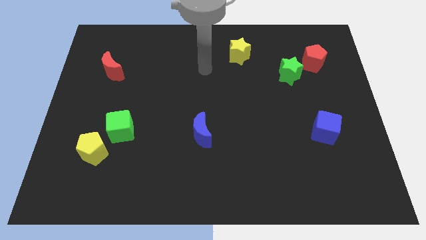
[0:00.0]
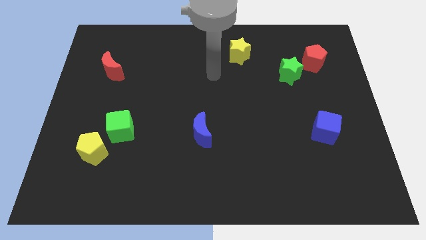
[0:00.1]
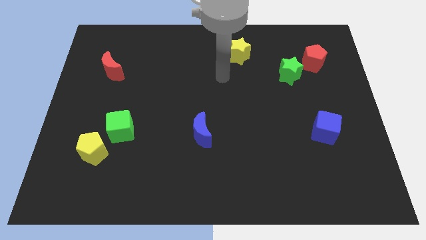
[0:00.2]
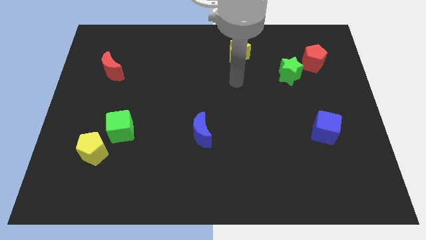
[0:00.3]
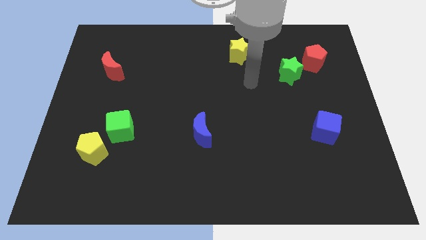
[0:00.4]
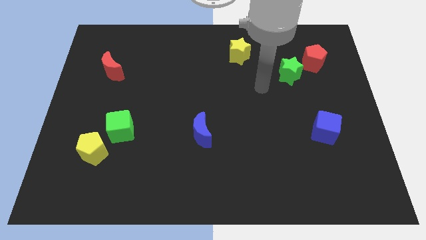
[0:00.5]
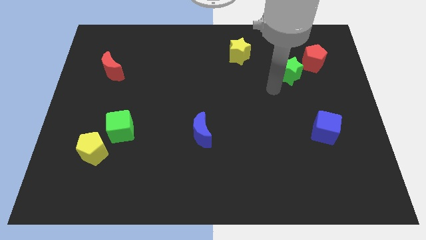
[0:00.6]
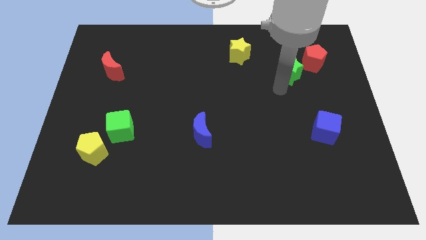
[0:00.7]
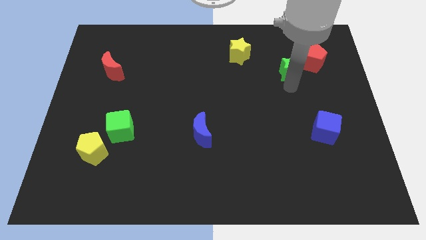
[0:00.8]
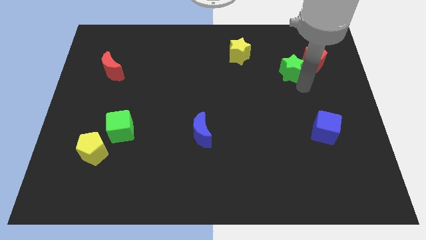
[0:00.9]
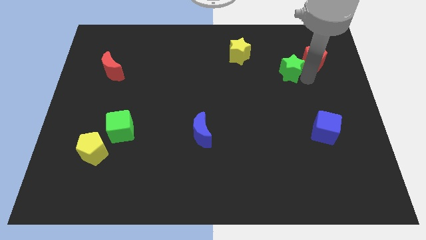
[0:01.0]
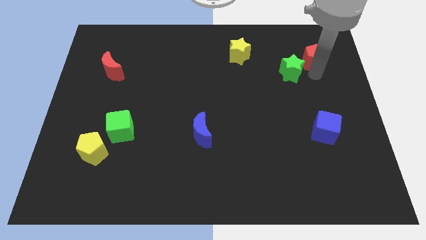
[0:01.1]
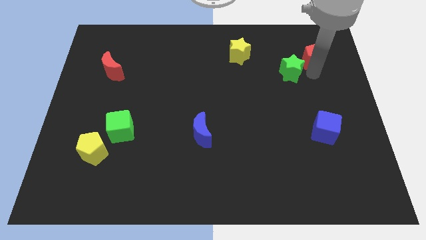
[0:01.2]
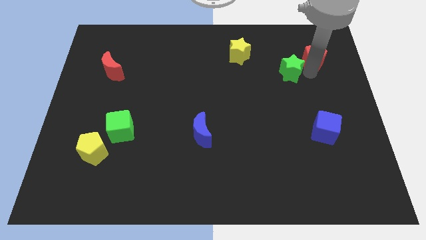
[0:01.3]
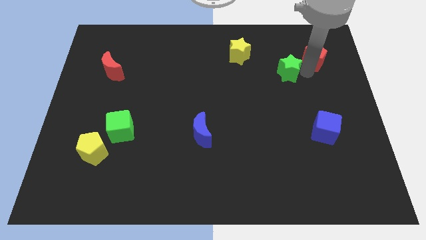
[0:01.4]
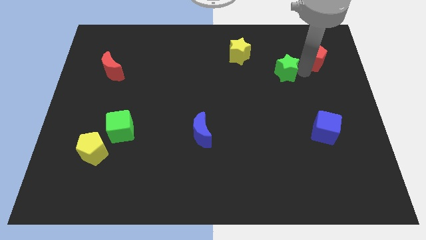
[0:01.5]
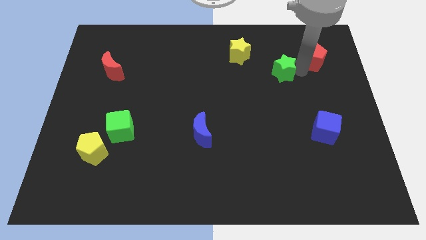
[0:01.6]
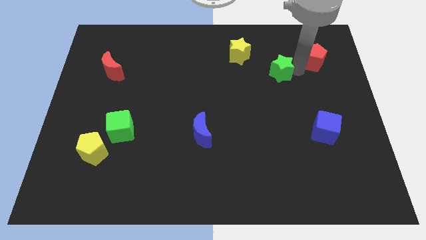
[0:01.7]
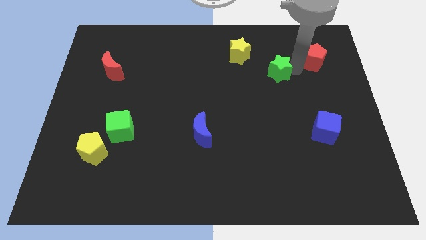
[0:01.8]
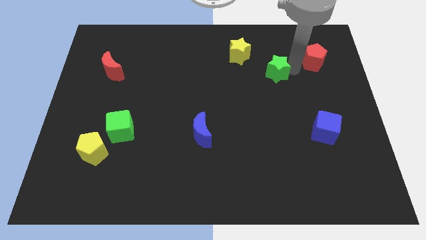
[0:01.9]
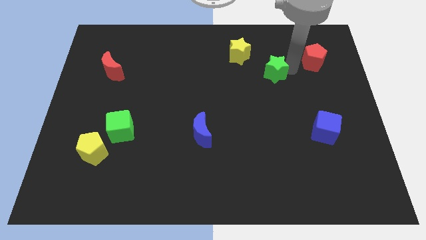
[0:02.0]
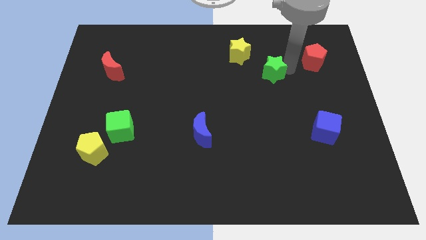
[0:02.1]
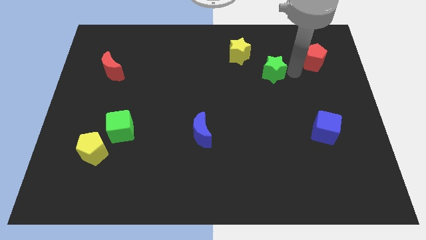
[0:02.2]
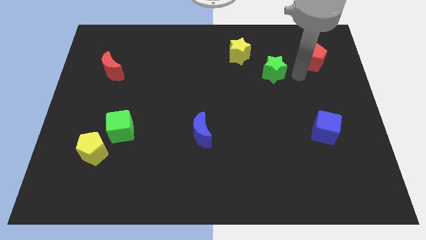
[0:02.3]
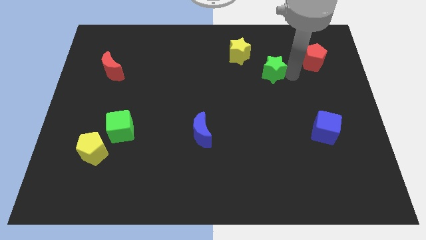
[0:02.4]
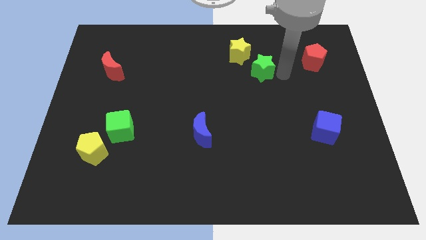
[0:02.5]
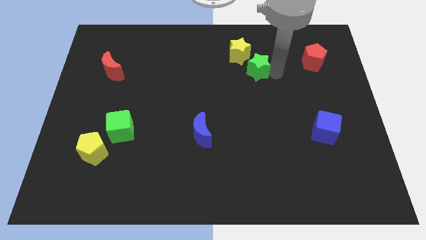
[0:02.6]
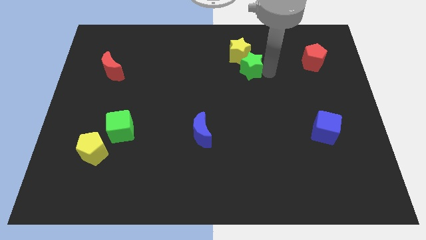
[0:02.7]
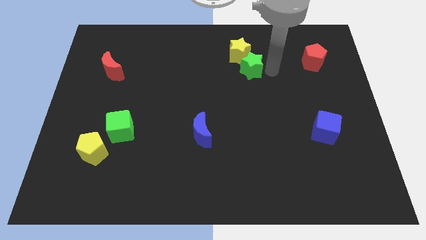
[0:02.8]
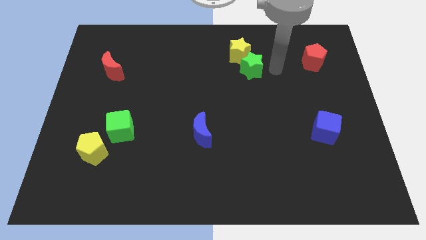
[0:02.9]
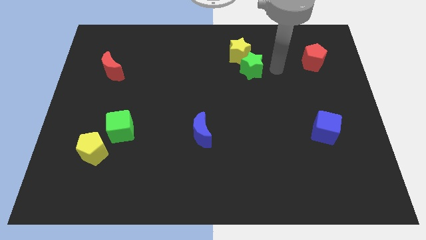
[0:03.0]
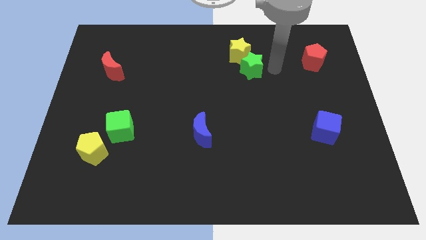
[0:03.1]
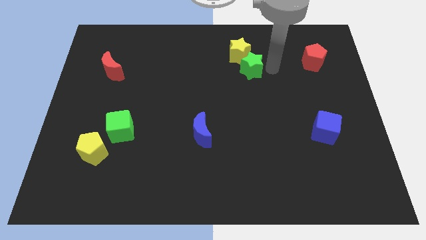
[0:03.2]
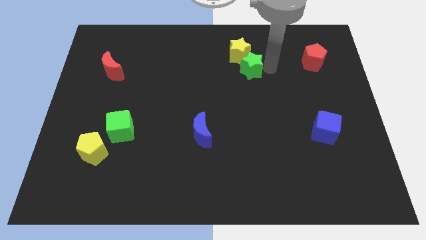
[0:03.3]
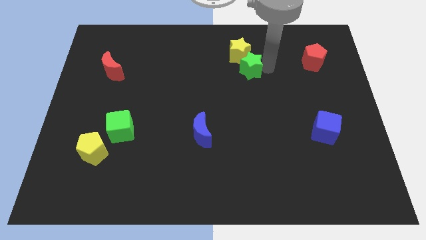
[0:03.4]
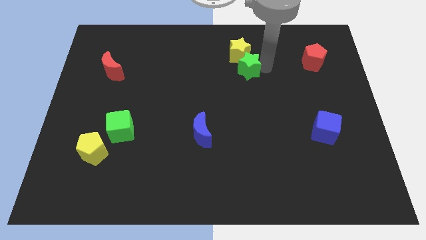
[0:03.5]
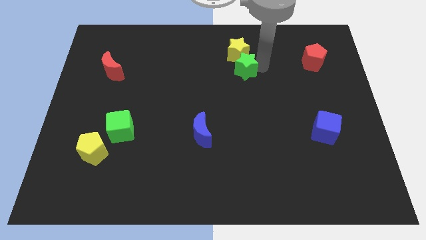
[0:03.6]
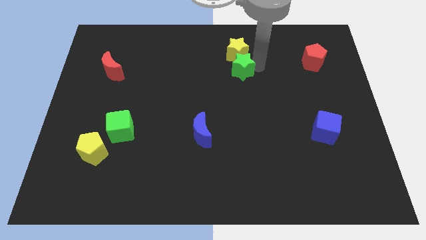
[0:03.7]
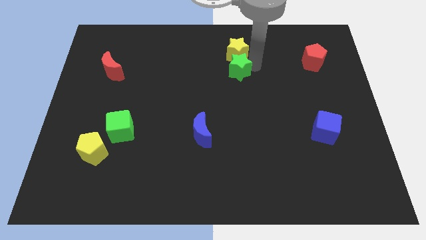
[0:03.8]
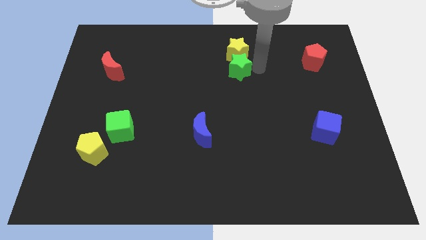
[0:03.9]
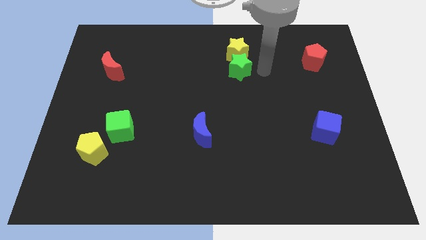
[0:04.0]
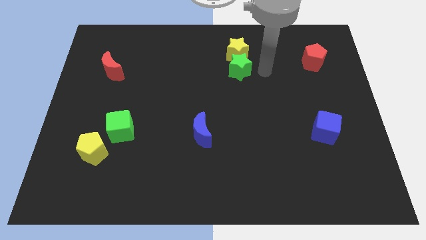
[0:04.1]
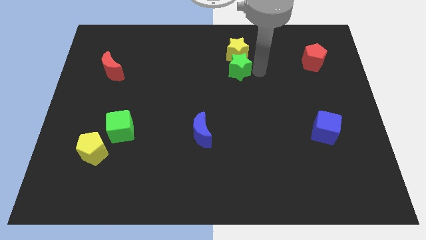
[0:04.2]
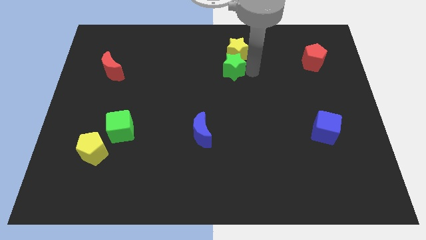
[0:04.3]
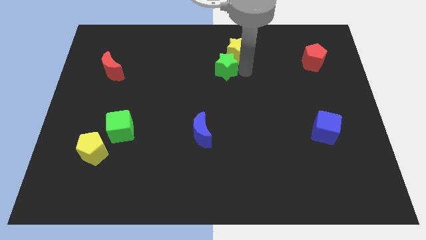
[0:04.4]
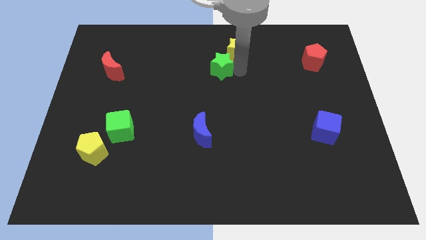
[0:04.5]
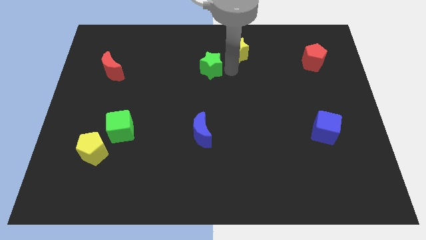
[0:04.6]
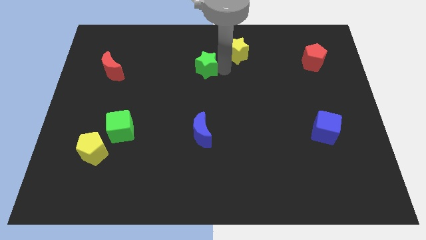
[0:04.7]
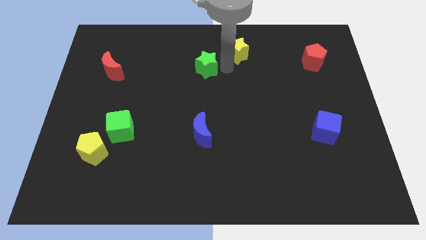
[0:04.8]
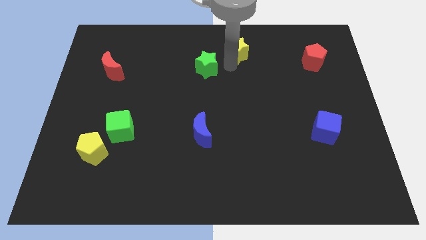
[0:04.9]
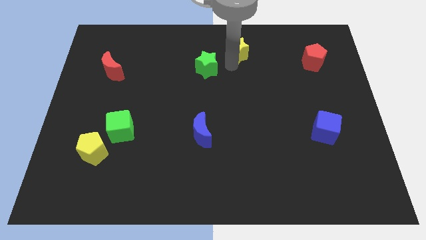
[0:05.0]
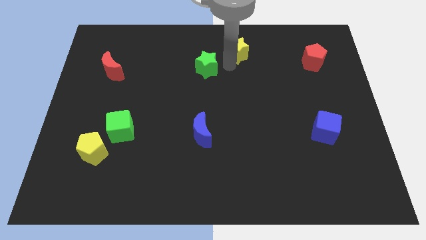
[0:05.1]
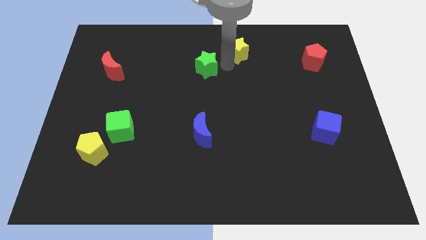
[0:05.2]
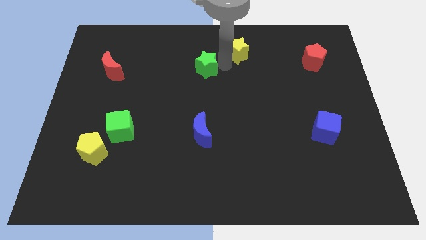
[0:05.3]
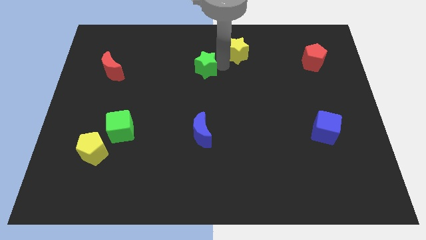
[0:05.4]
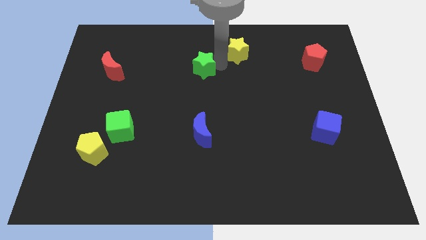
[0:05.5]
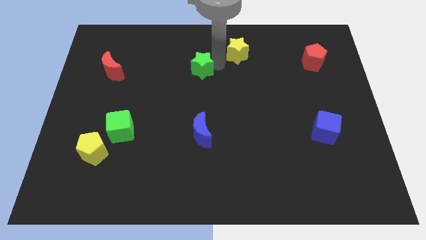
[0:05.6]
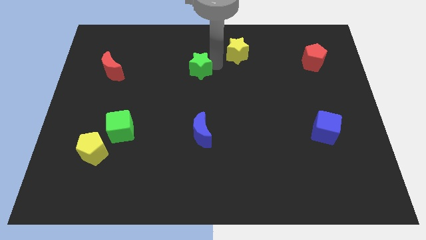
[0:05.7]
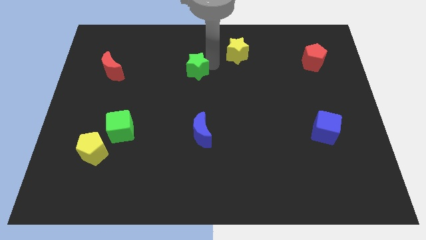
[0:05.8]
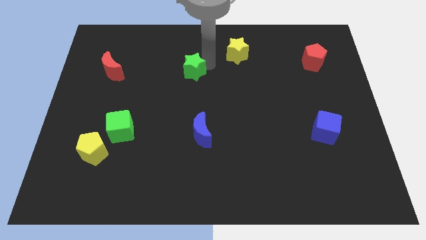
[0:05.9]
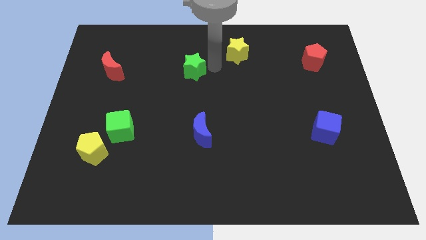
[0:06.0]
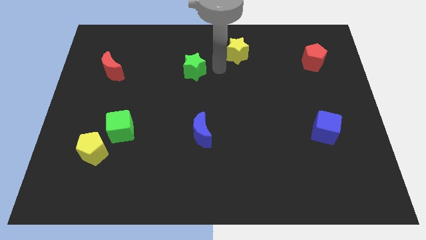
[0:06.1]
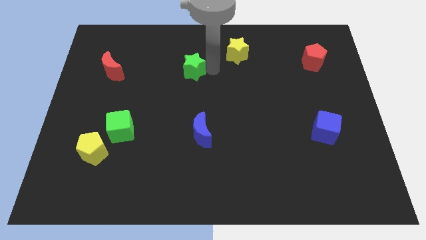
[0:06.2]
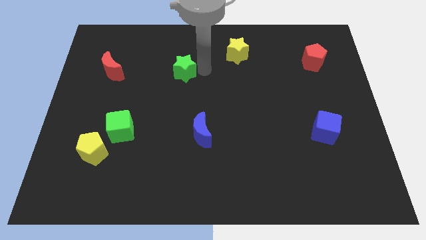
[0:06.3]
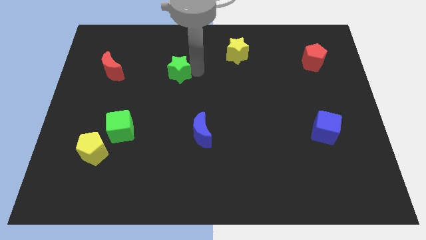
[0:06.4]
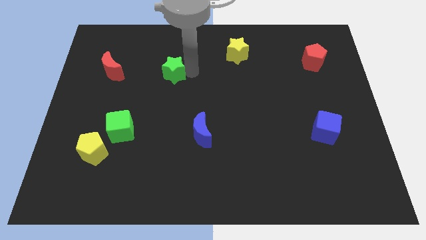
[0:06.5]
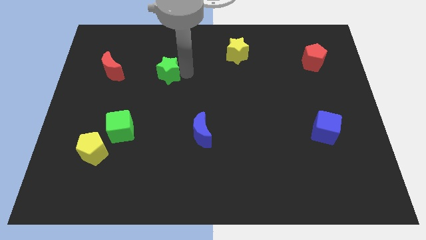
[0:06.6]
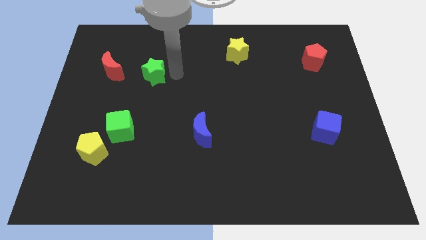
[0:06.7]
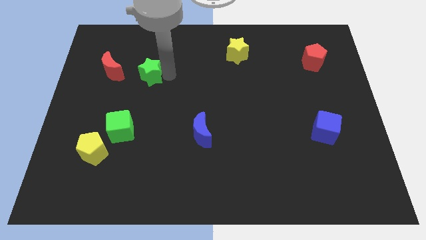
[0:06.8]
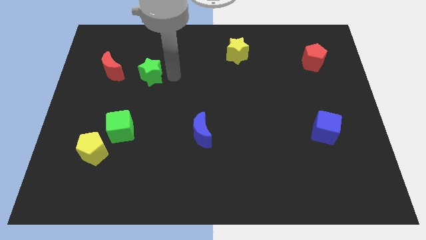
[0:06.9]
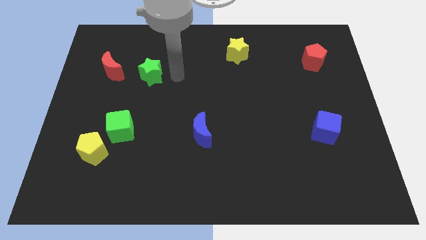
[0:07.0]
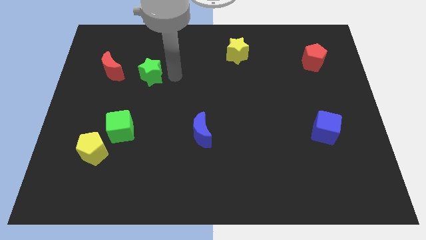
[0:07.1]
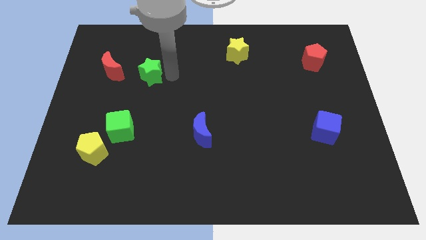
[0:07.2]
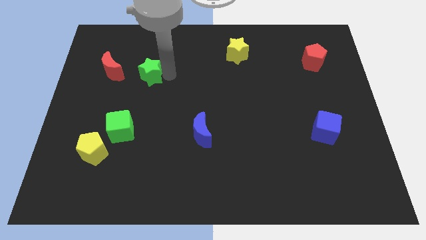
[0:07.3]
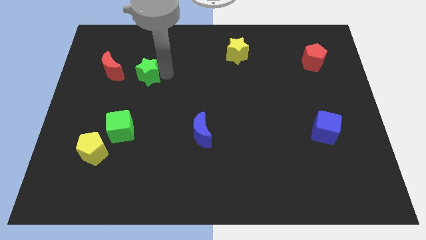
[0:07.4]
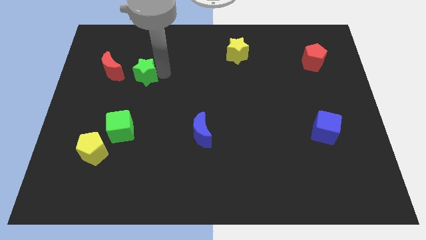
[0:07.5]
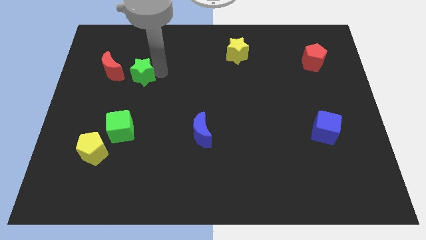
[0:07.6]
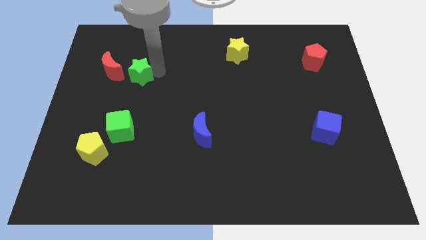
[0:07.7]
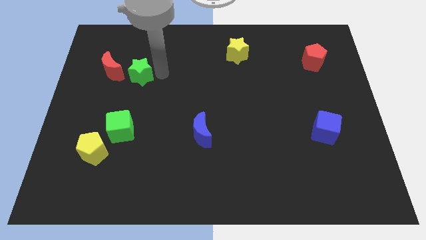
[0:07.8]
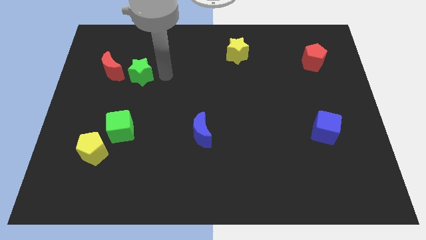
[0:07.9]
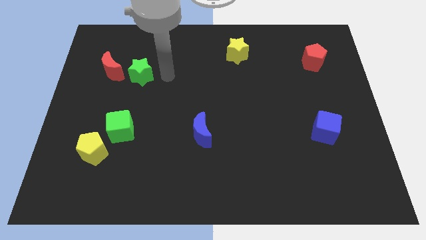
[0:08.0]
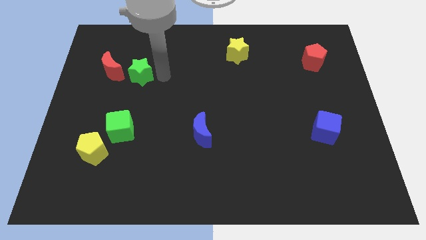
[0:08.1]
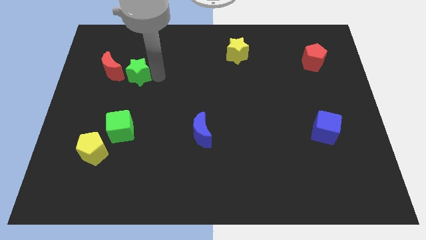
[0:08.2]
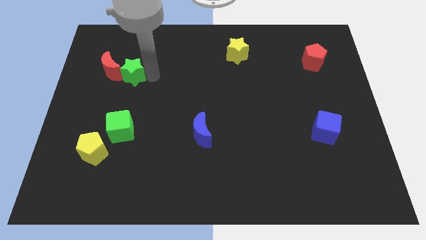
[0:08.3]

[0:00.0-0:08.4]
put the green star towards the red moon
